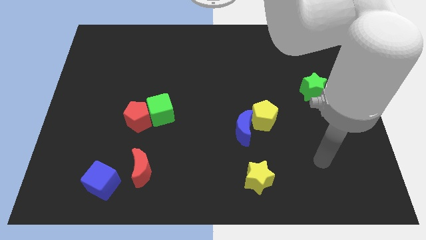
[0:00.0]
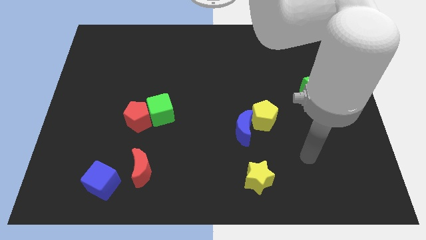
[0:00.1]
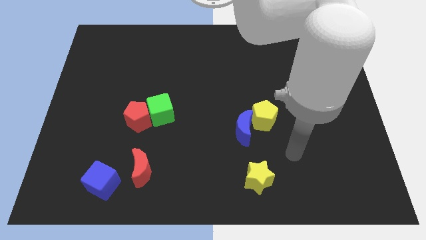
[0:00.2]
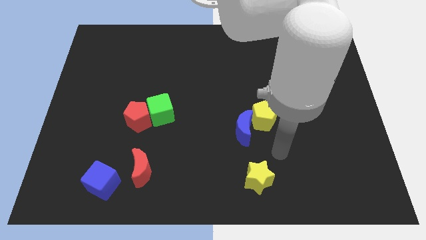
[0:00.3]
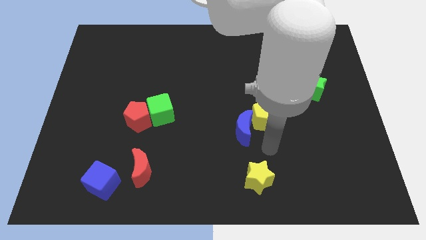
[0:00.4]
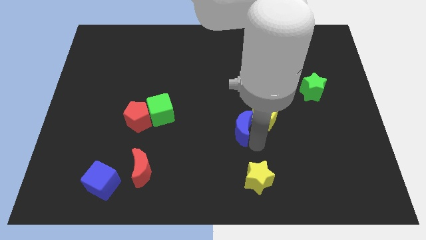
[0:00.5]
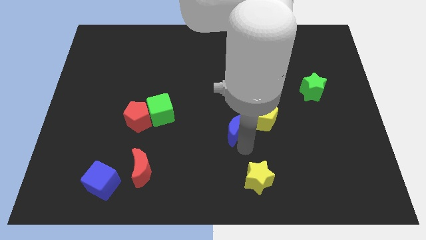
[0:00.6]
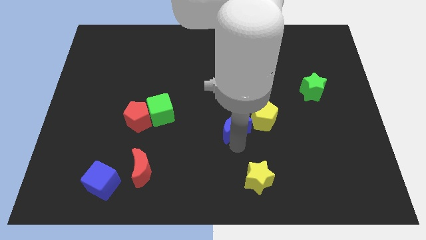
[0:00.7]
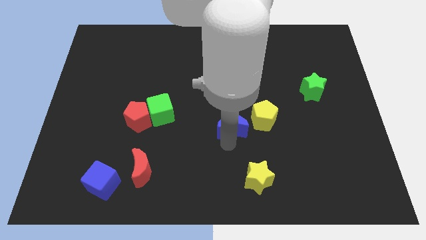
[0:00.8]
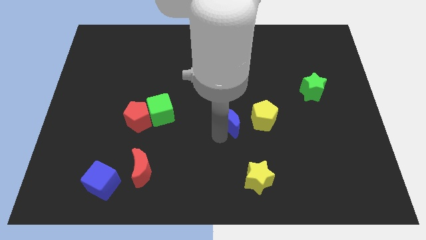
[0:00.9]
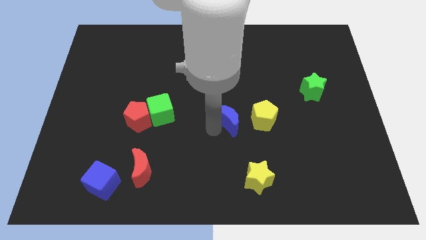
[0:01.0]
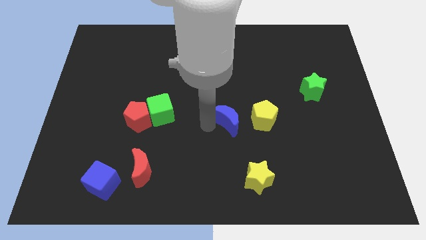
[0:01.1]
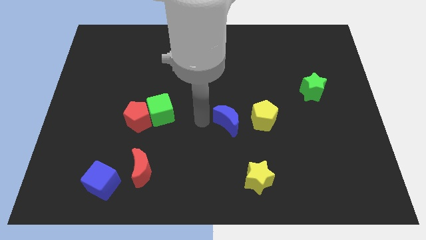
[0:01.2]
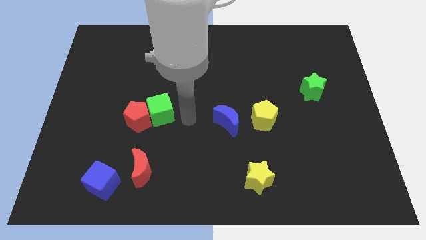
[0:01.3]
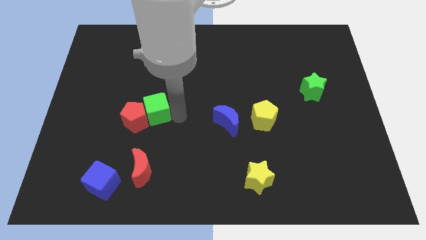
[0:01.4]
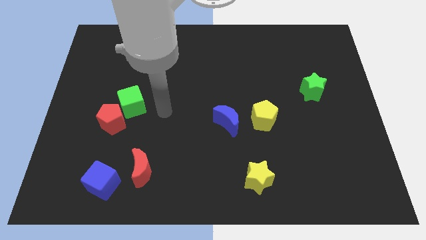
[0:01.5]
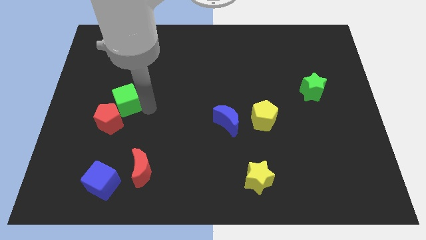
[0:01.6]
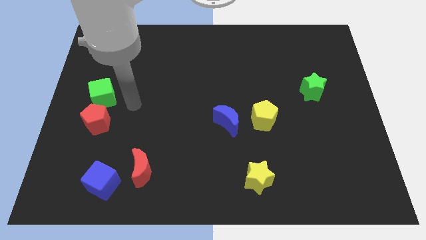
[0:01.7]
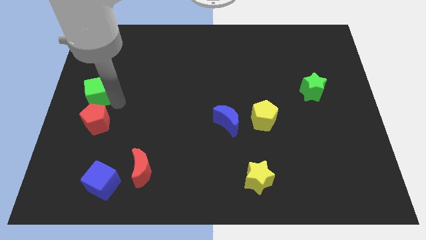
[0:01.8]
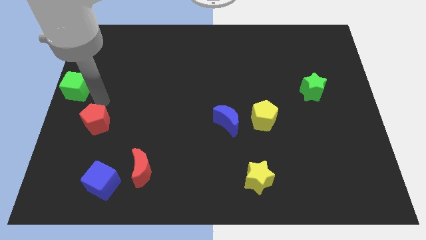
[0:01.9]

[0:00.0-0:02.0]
move the red pentagon away from the green cube

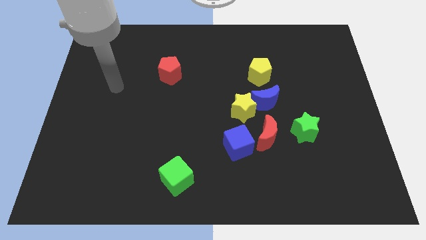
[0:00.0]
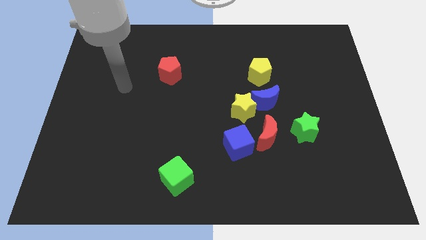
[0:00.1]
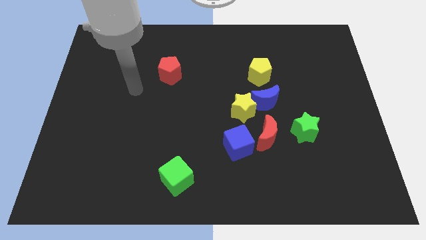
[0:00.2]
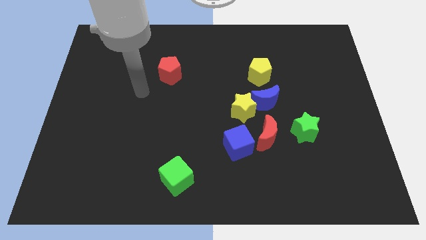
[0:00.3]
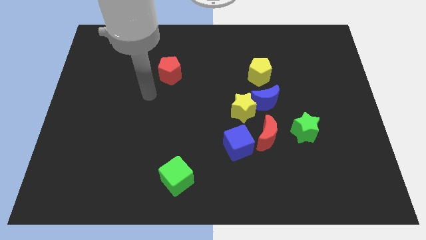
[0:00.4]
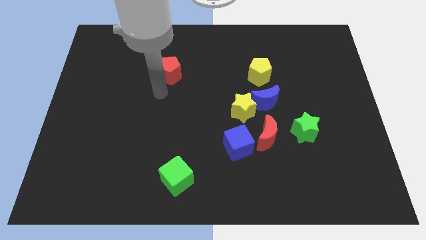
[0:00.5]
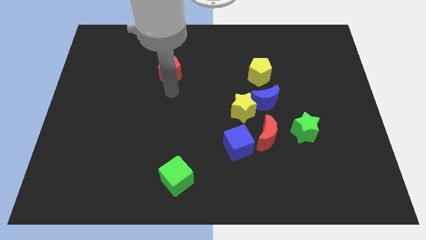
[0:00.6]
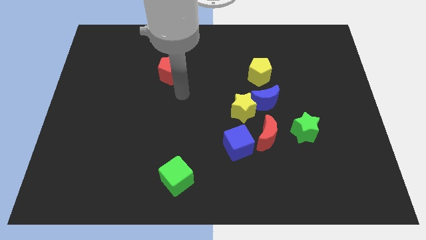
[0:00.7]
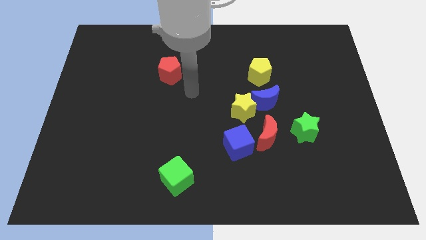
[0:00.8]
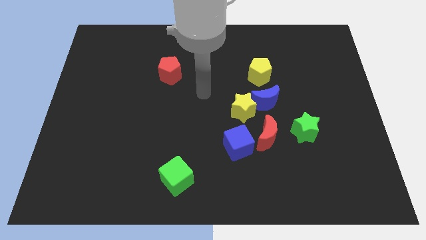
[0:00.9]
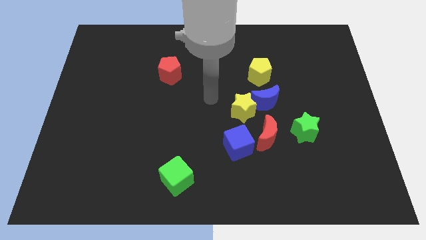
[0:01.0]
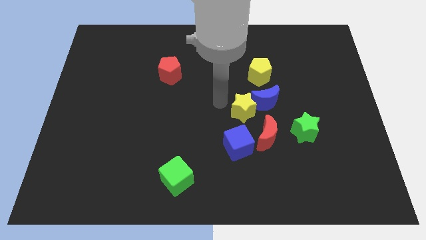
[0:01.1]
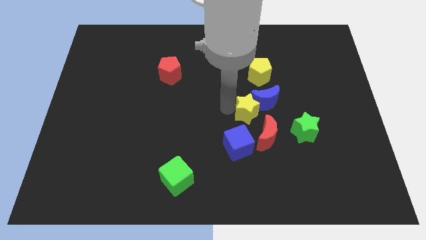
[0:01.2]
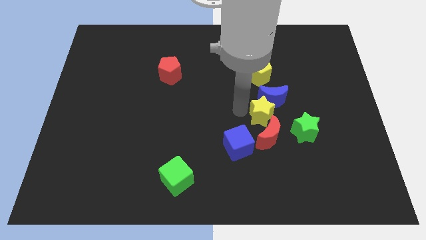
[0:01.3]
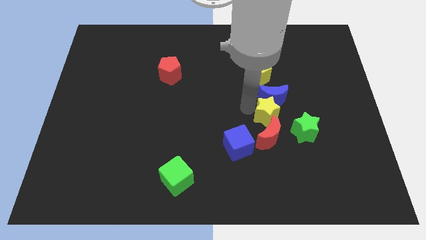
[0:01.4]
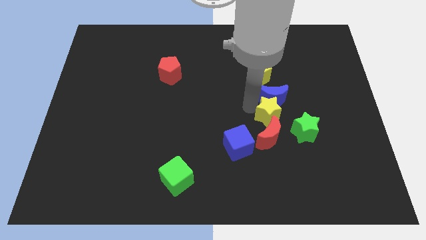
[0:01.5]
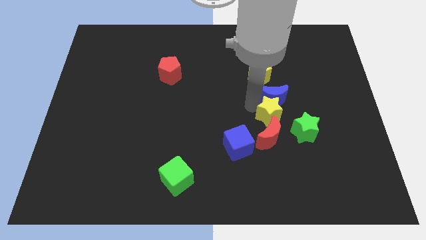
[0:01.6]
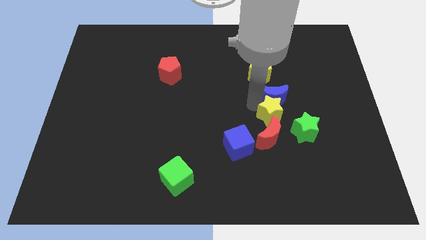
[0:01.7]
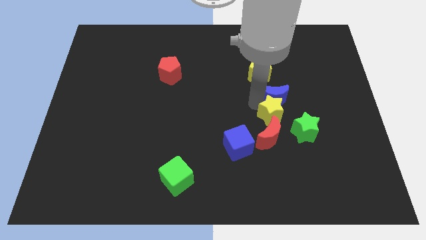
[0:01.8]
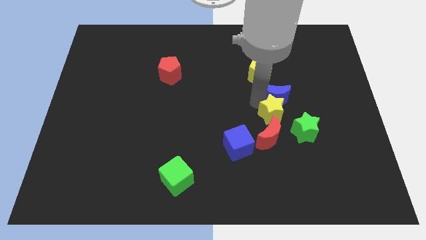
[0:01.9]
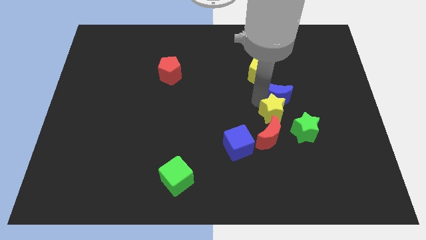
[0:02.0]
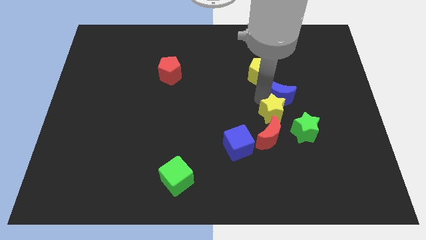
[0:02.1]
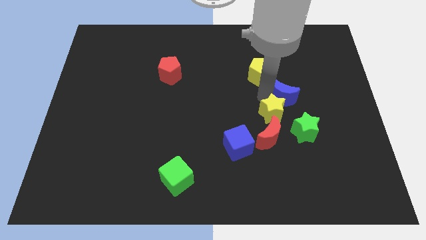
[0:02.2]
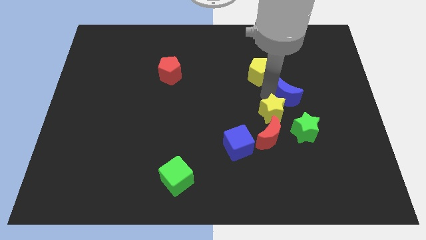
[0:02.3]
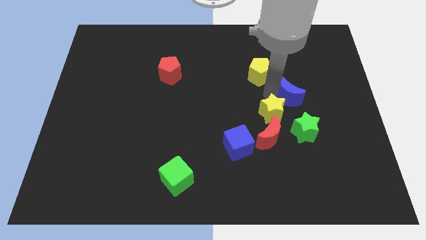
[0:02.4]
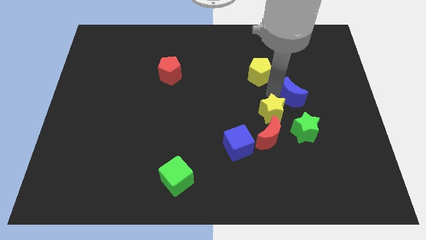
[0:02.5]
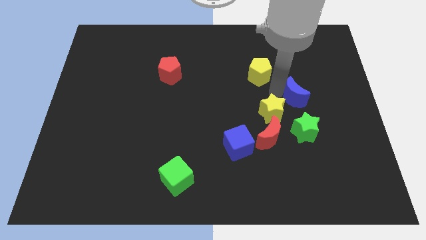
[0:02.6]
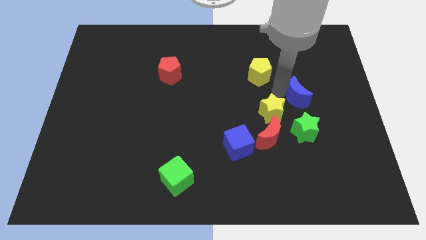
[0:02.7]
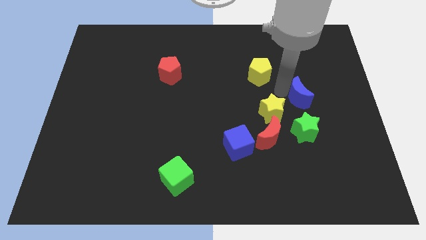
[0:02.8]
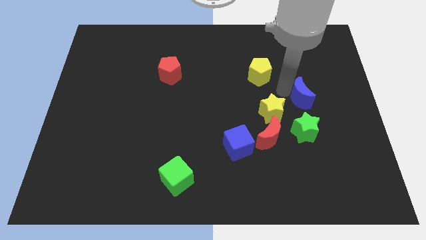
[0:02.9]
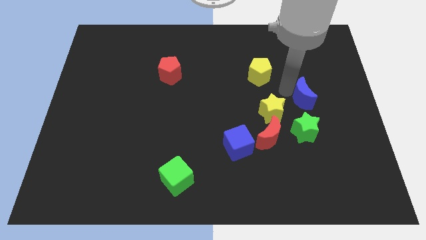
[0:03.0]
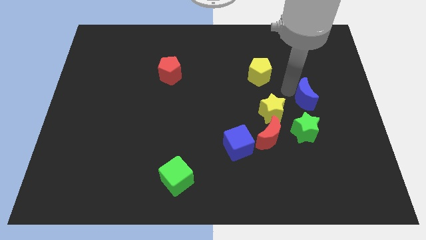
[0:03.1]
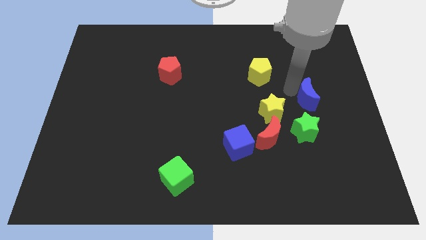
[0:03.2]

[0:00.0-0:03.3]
separate the blue moon from the yellow star, yellow pentagon, and red moon

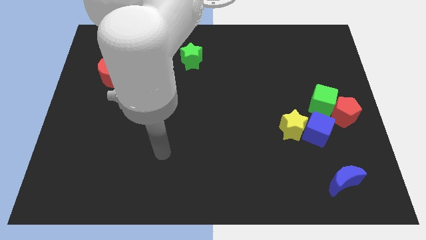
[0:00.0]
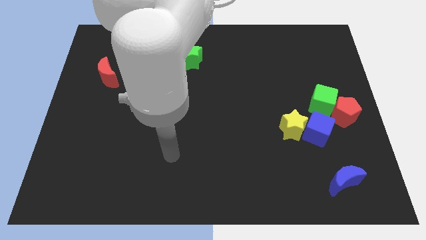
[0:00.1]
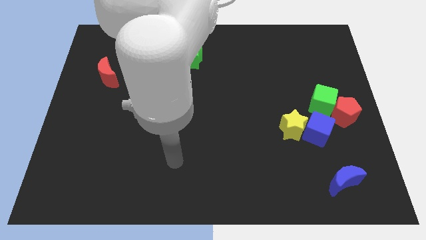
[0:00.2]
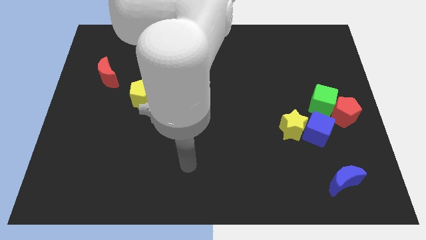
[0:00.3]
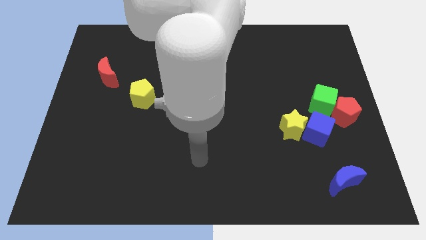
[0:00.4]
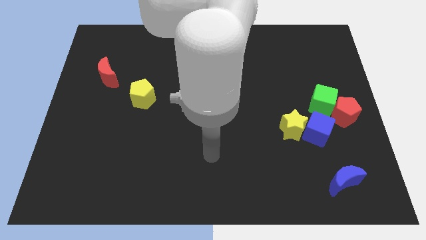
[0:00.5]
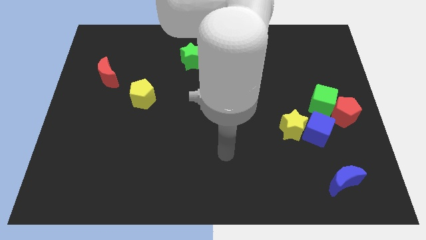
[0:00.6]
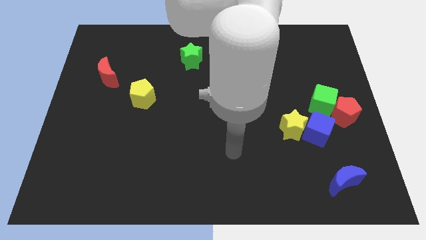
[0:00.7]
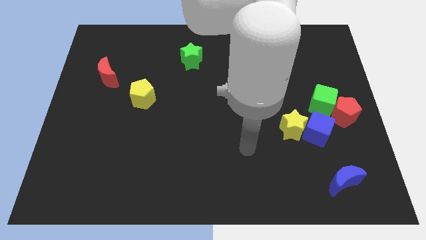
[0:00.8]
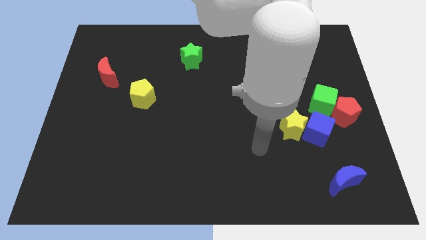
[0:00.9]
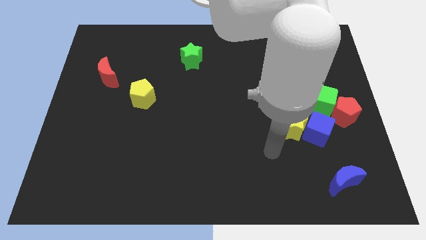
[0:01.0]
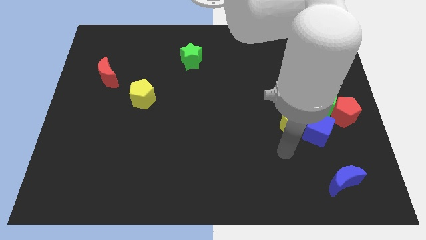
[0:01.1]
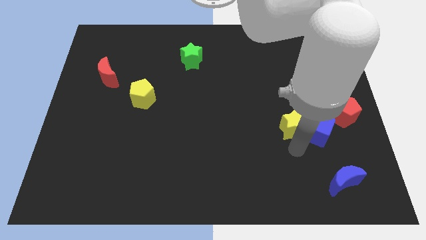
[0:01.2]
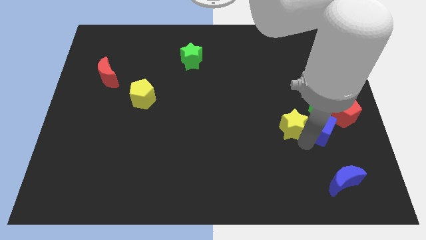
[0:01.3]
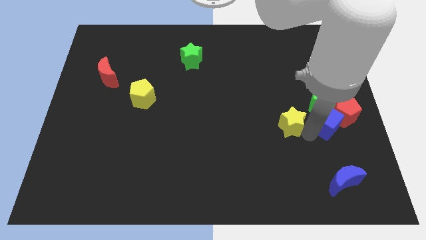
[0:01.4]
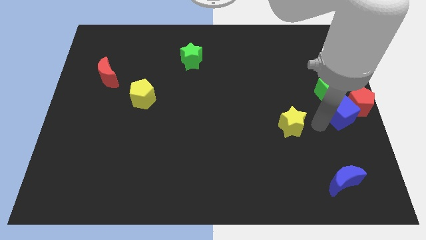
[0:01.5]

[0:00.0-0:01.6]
move the yellow star away from the blue cube

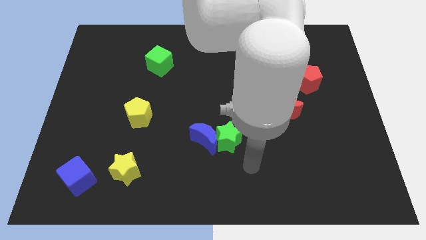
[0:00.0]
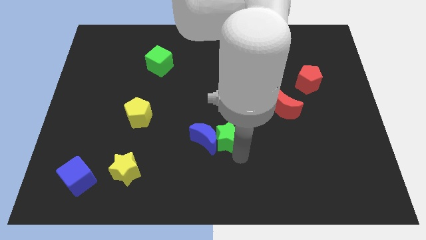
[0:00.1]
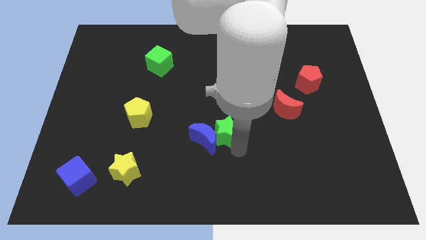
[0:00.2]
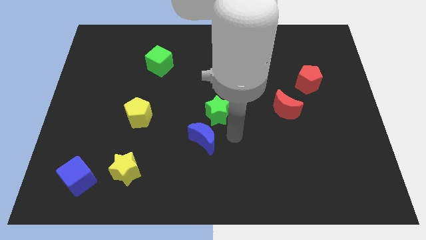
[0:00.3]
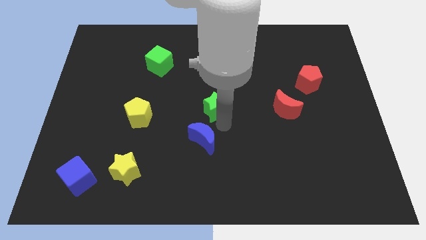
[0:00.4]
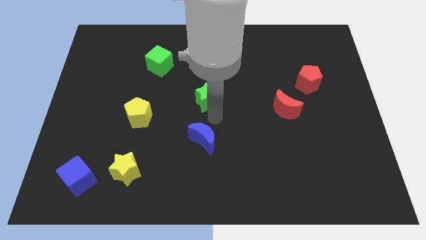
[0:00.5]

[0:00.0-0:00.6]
separate the blue moon from the green star

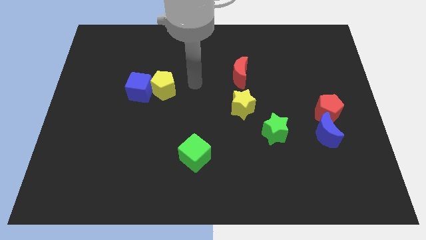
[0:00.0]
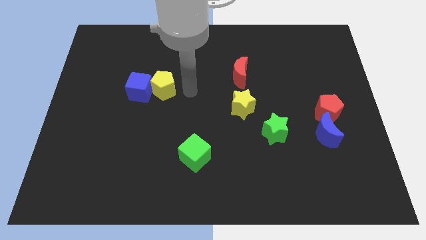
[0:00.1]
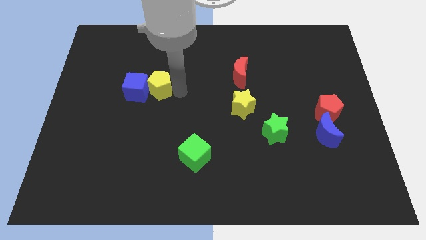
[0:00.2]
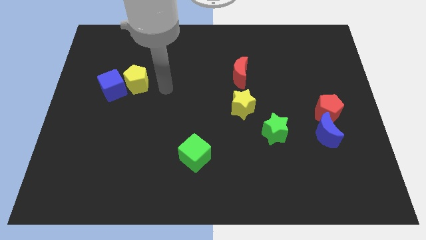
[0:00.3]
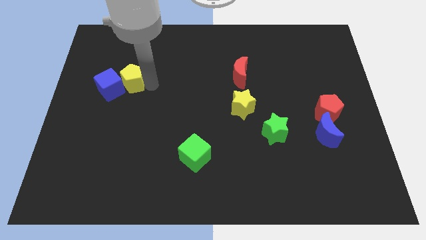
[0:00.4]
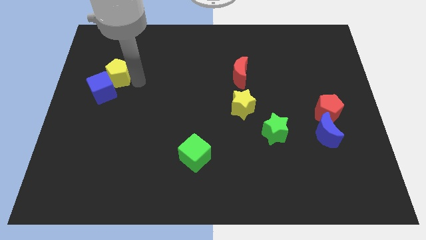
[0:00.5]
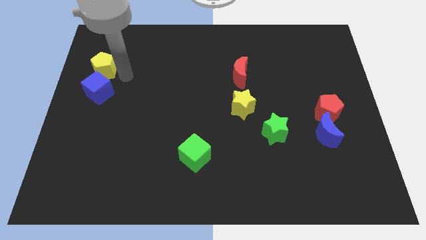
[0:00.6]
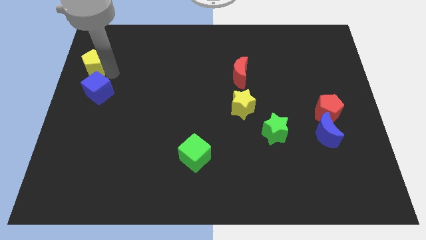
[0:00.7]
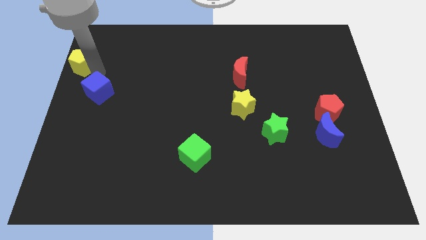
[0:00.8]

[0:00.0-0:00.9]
pull the blue cube apart from the yellow pentagon

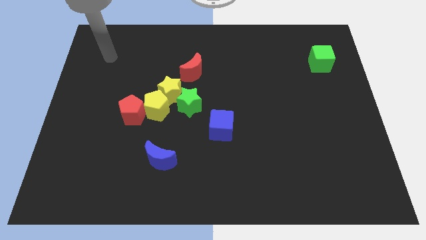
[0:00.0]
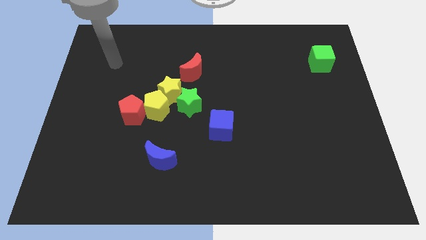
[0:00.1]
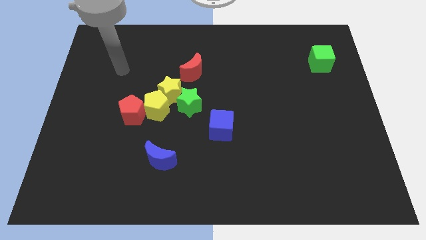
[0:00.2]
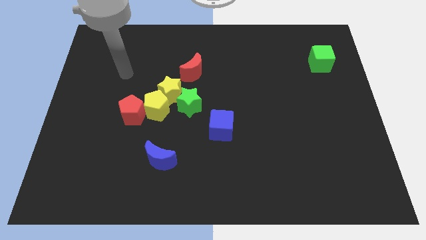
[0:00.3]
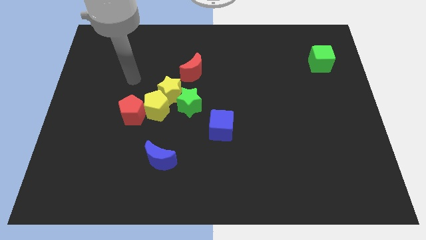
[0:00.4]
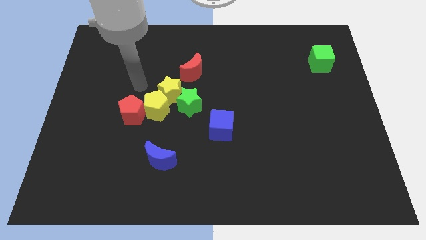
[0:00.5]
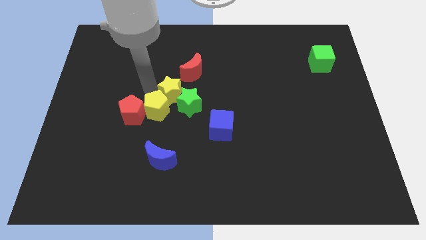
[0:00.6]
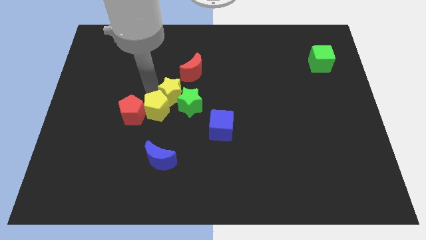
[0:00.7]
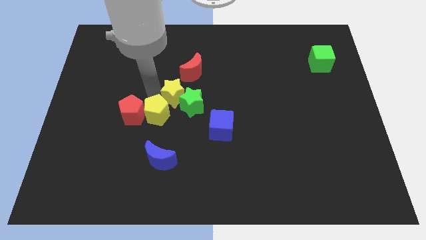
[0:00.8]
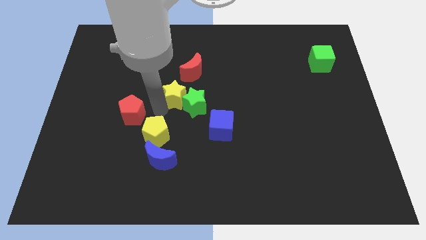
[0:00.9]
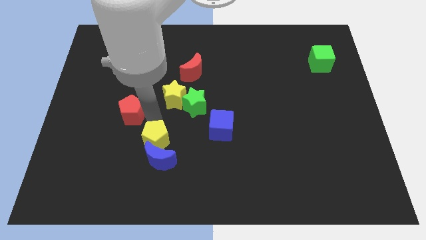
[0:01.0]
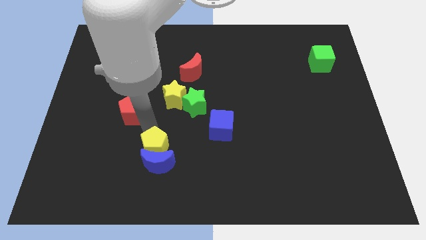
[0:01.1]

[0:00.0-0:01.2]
pull the red pentagon apart from the yellow pentagon
